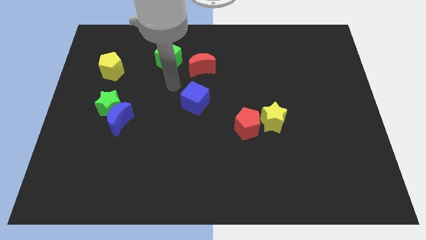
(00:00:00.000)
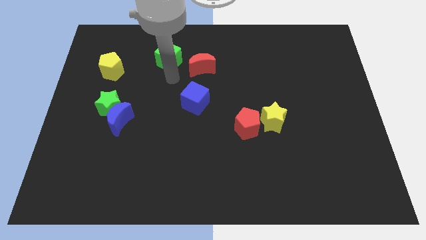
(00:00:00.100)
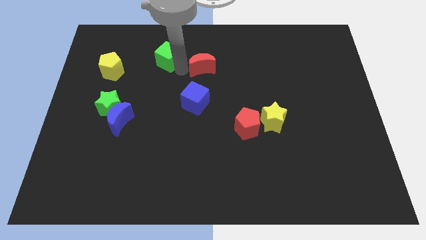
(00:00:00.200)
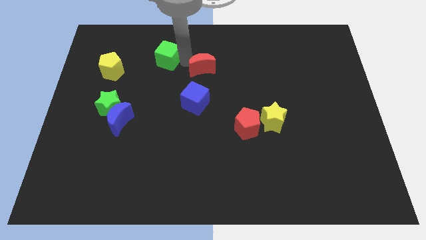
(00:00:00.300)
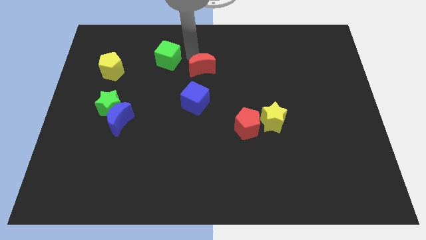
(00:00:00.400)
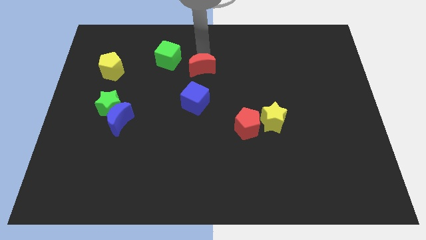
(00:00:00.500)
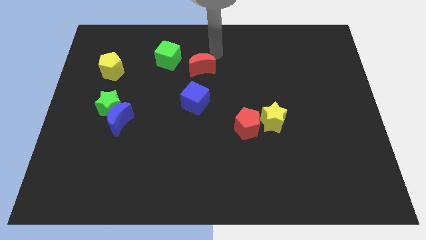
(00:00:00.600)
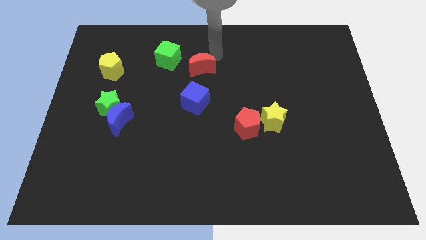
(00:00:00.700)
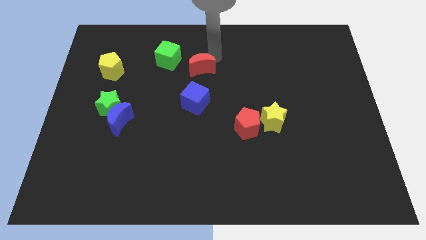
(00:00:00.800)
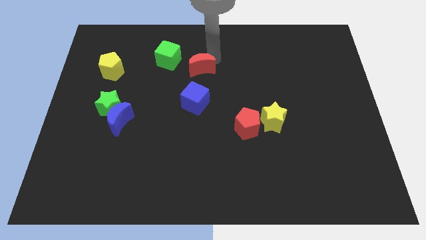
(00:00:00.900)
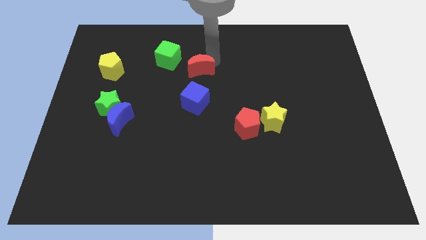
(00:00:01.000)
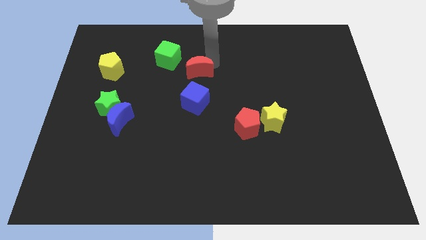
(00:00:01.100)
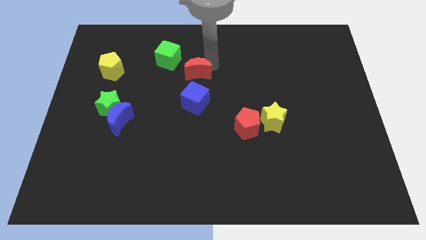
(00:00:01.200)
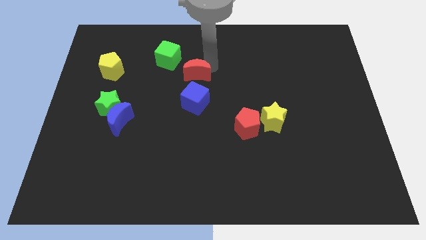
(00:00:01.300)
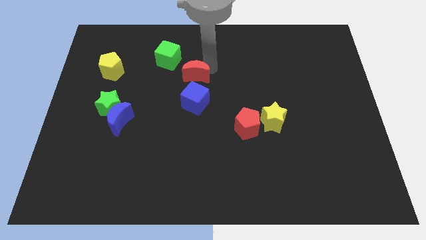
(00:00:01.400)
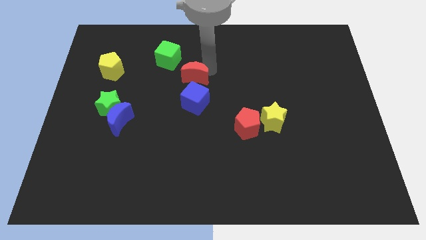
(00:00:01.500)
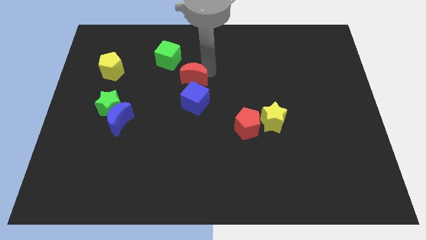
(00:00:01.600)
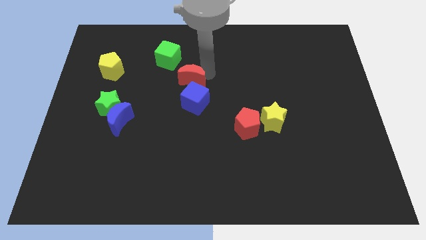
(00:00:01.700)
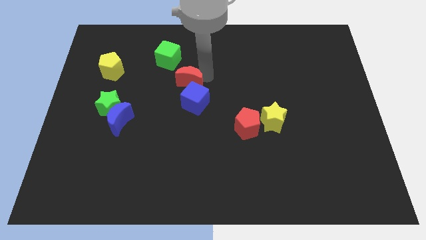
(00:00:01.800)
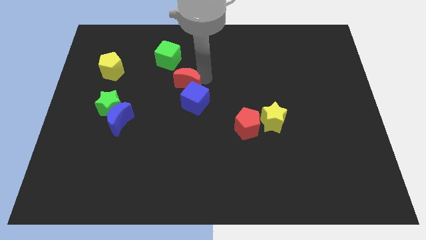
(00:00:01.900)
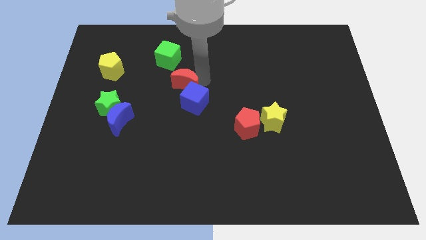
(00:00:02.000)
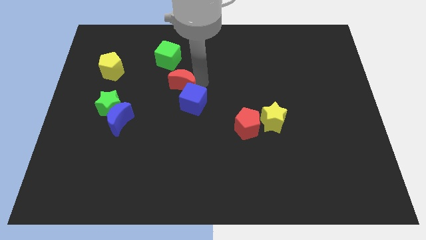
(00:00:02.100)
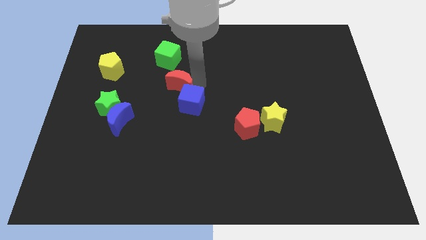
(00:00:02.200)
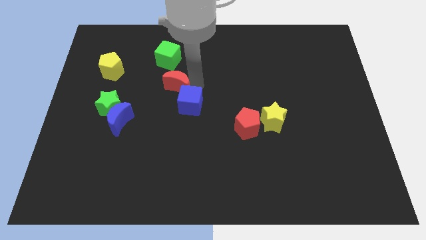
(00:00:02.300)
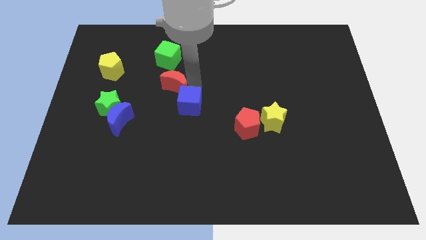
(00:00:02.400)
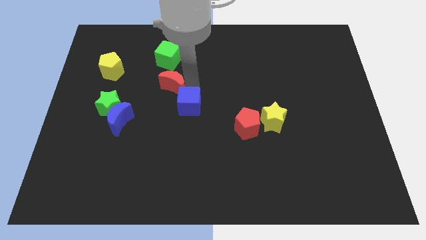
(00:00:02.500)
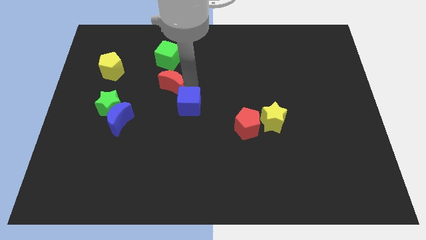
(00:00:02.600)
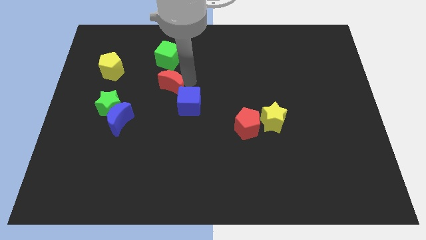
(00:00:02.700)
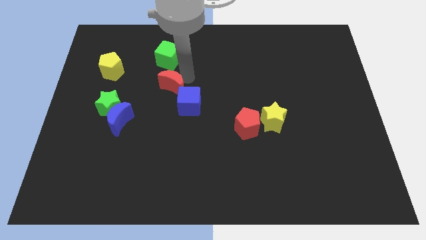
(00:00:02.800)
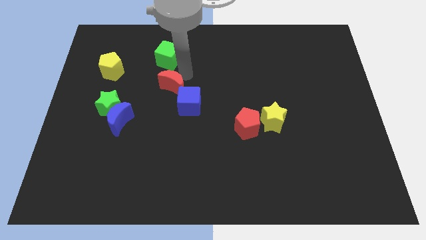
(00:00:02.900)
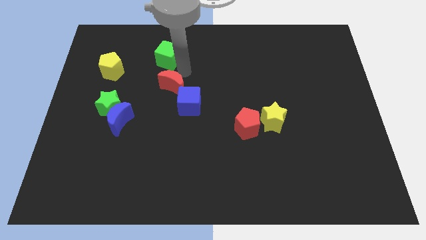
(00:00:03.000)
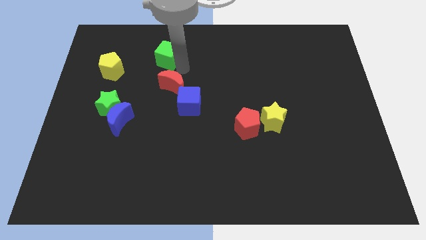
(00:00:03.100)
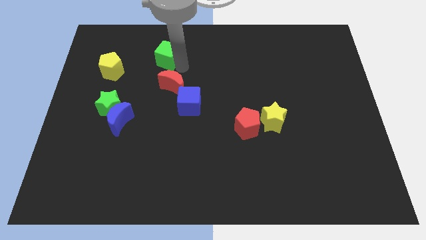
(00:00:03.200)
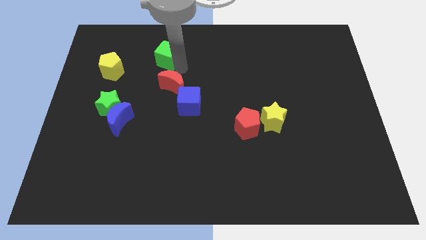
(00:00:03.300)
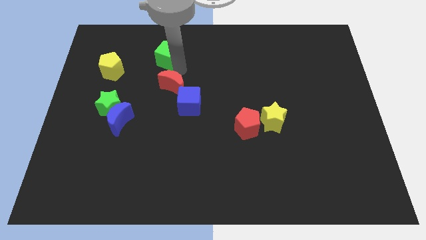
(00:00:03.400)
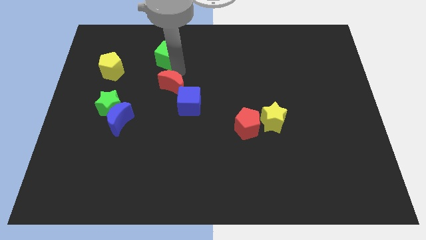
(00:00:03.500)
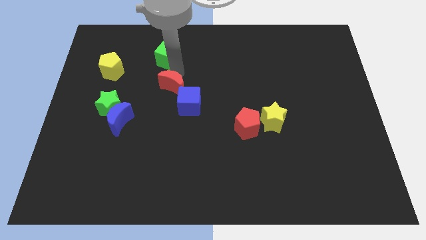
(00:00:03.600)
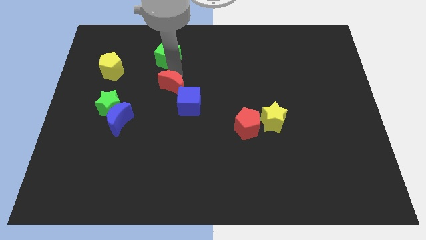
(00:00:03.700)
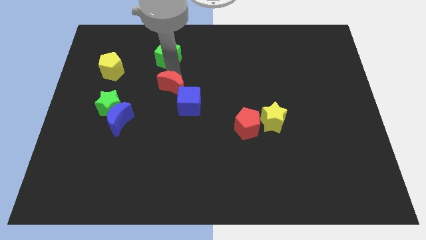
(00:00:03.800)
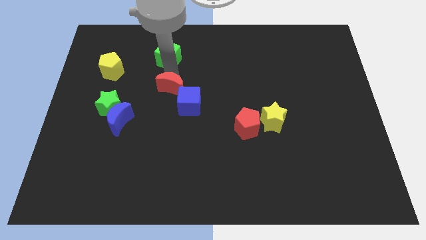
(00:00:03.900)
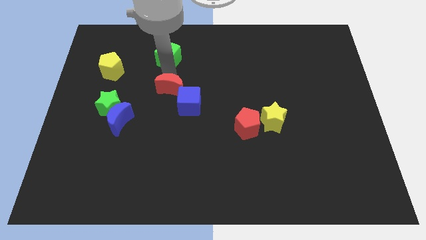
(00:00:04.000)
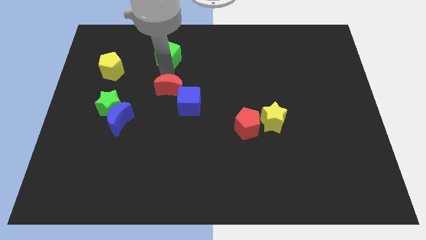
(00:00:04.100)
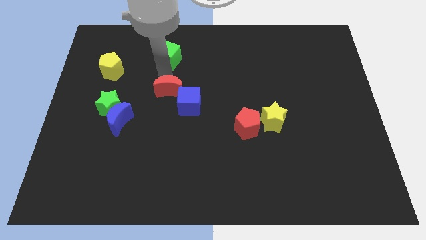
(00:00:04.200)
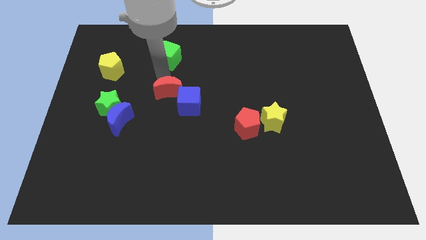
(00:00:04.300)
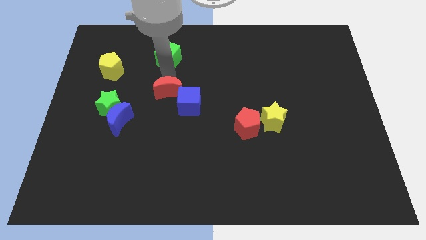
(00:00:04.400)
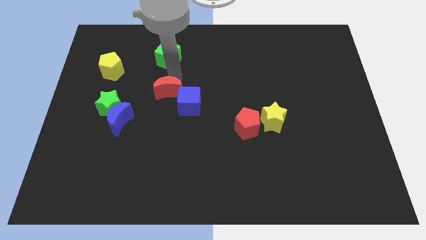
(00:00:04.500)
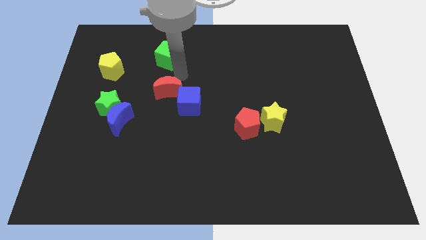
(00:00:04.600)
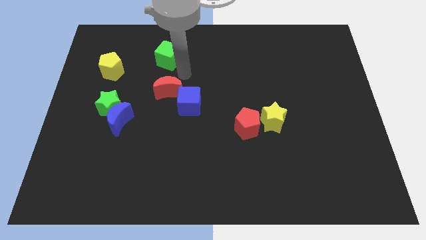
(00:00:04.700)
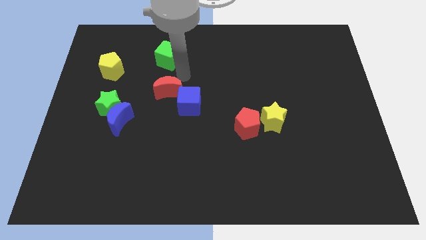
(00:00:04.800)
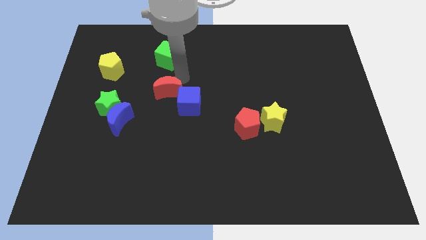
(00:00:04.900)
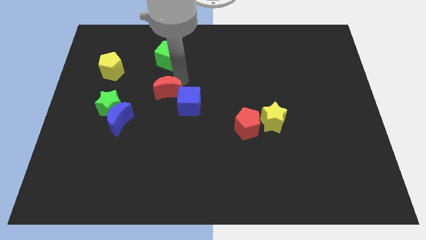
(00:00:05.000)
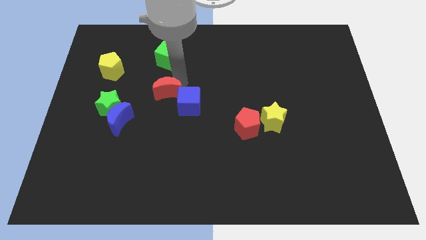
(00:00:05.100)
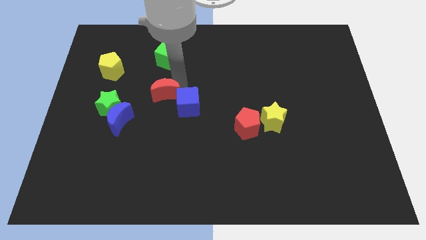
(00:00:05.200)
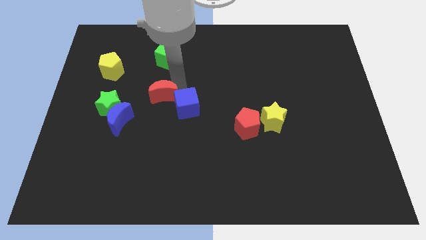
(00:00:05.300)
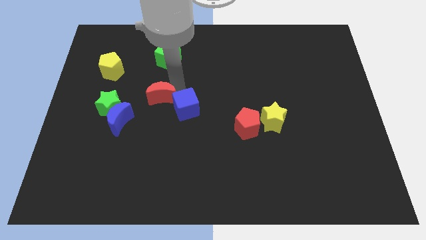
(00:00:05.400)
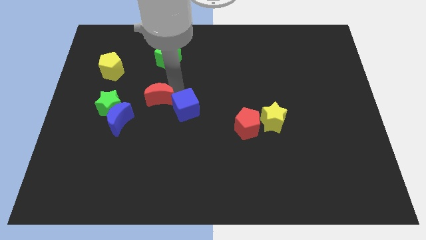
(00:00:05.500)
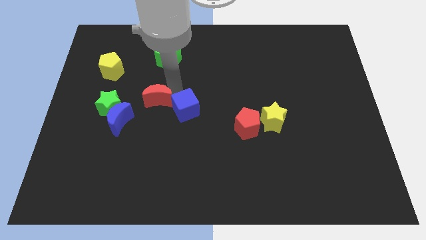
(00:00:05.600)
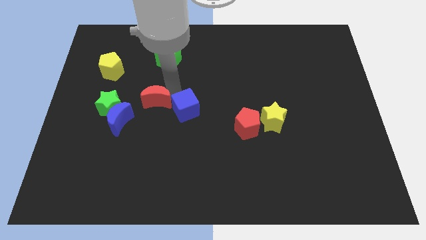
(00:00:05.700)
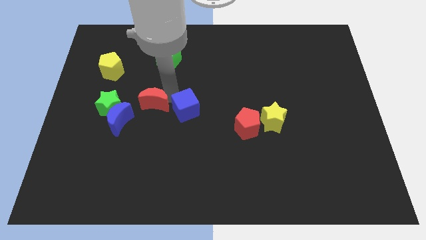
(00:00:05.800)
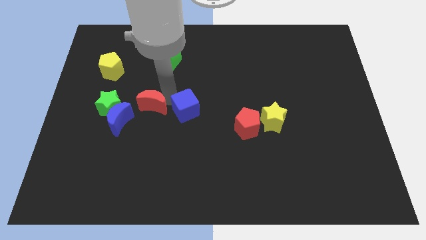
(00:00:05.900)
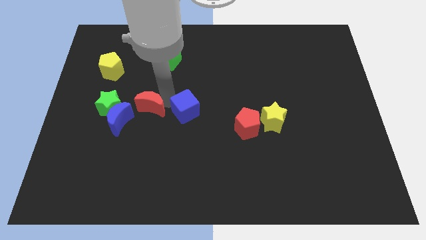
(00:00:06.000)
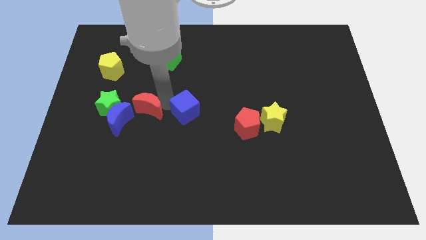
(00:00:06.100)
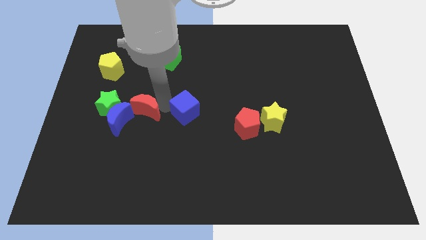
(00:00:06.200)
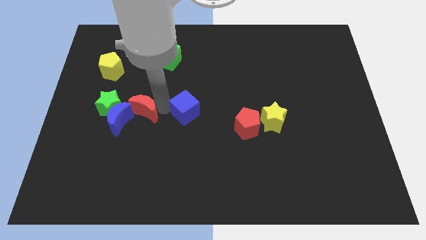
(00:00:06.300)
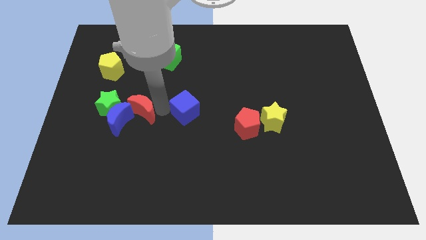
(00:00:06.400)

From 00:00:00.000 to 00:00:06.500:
push the red moon next to the blue moon

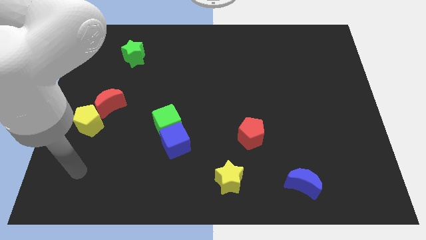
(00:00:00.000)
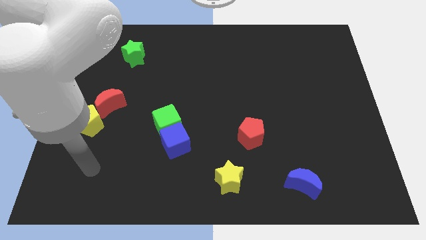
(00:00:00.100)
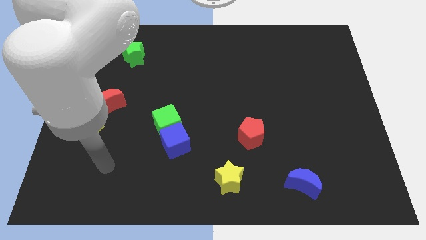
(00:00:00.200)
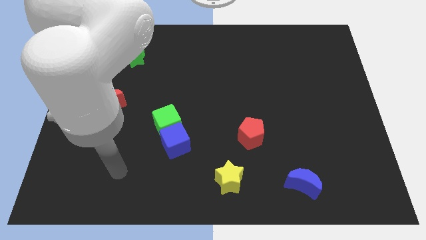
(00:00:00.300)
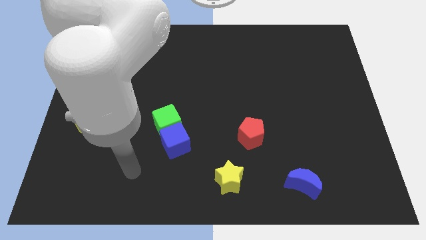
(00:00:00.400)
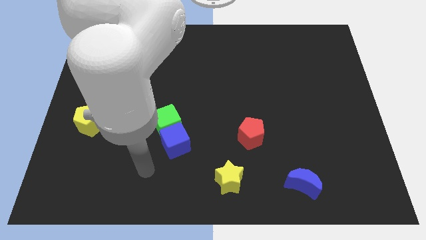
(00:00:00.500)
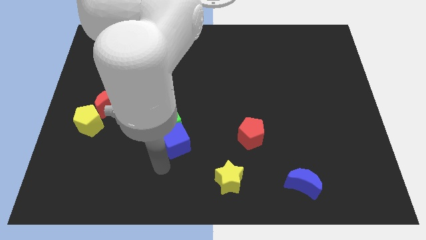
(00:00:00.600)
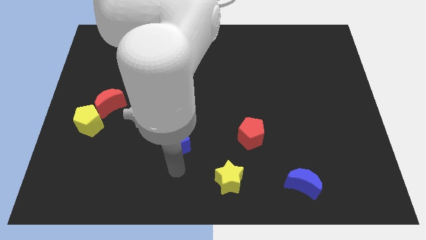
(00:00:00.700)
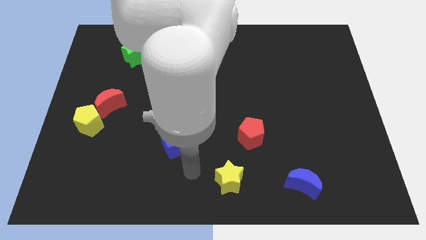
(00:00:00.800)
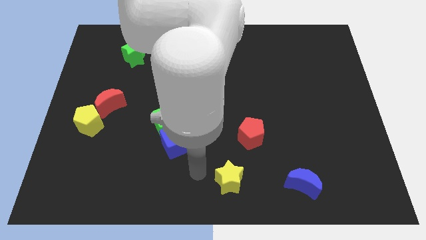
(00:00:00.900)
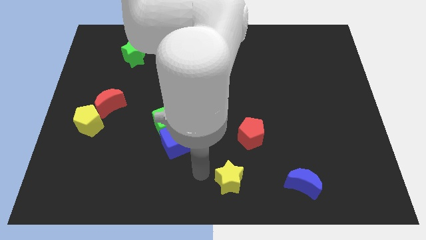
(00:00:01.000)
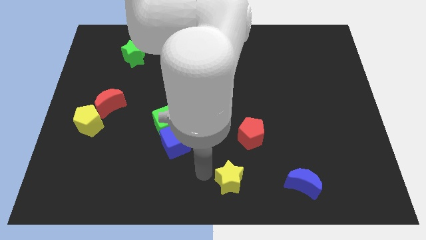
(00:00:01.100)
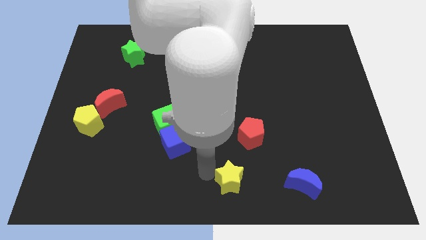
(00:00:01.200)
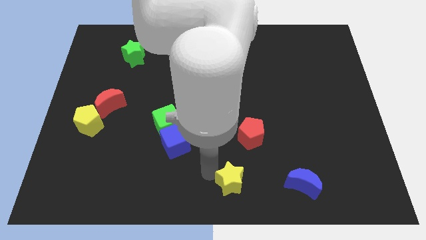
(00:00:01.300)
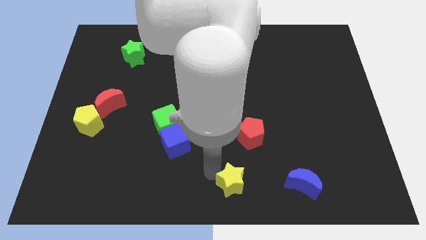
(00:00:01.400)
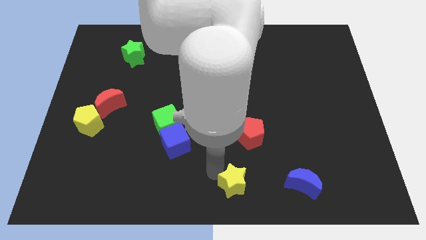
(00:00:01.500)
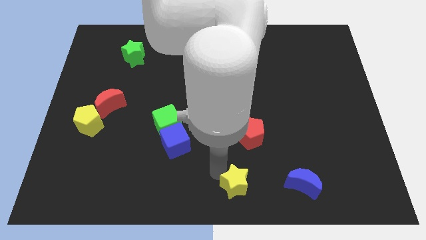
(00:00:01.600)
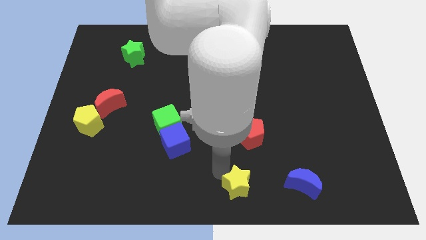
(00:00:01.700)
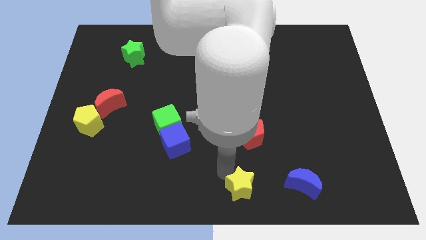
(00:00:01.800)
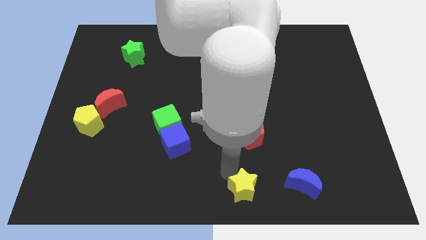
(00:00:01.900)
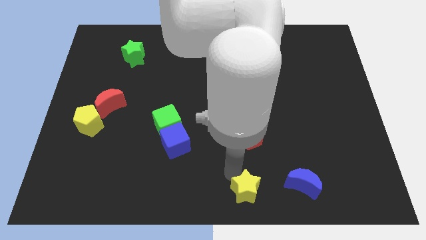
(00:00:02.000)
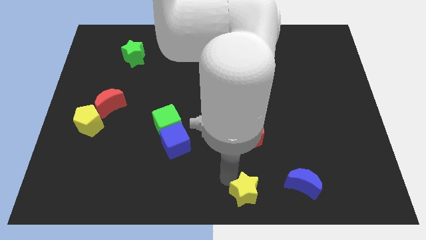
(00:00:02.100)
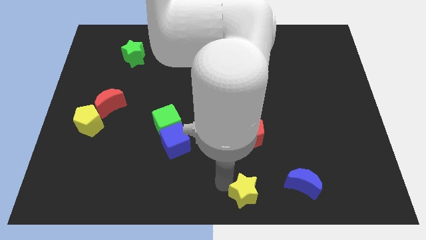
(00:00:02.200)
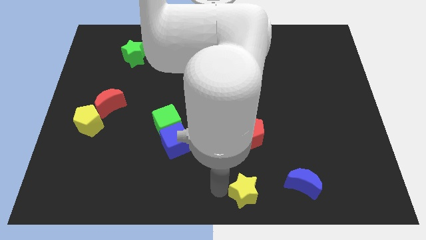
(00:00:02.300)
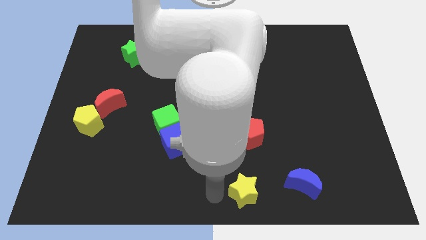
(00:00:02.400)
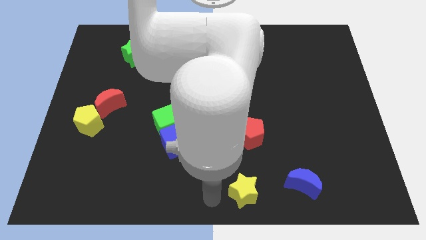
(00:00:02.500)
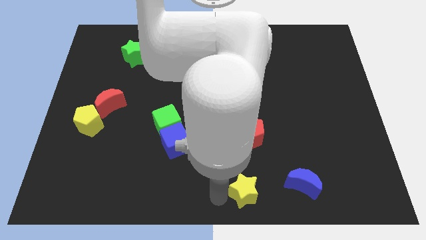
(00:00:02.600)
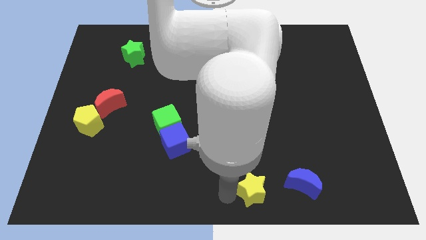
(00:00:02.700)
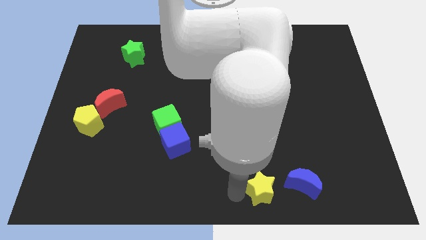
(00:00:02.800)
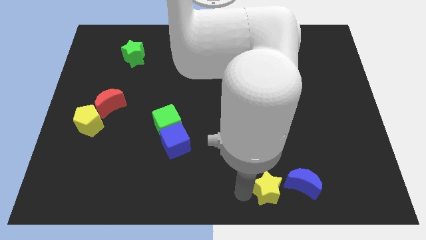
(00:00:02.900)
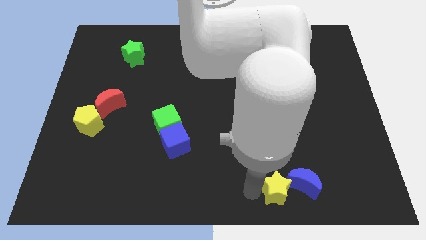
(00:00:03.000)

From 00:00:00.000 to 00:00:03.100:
slide the yellow star to the blue moon
